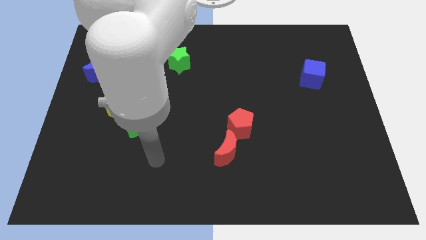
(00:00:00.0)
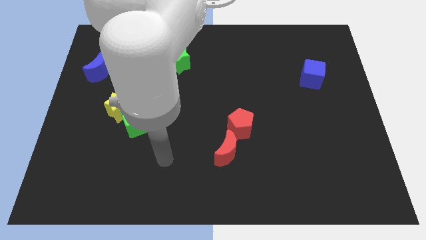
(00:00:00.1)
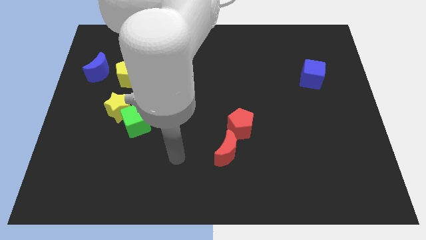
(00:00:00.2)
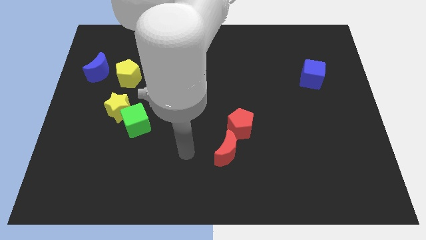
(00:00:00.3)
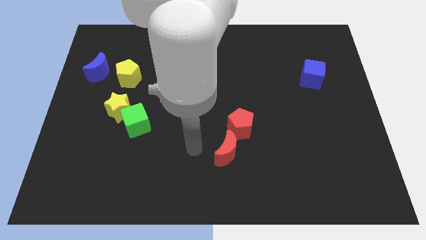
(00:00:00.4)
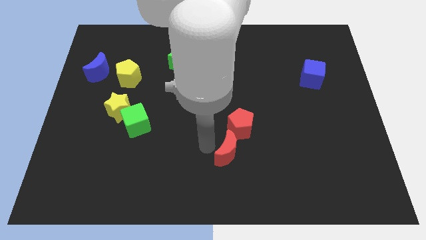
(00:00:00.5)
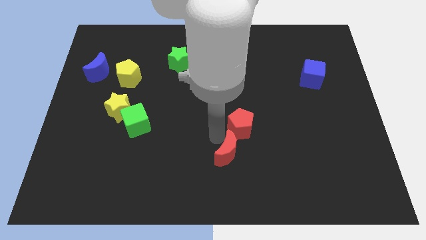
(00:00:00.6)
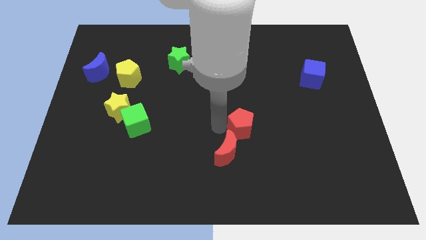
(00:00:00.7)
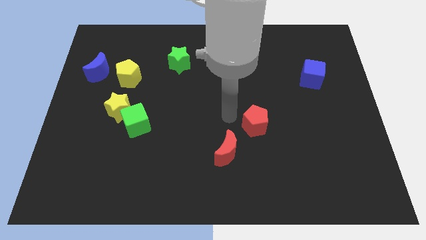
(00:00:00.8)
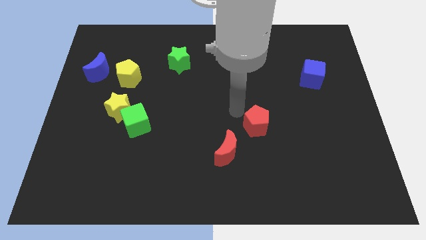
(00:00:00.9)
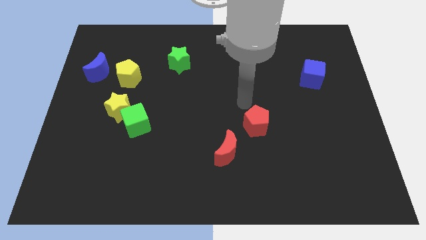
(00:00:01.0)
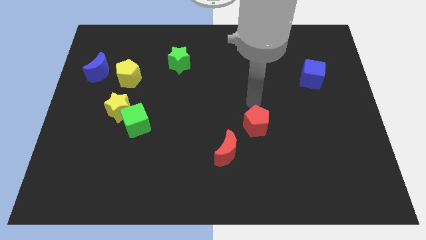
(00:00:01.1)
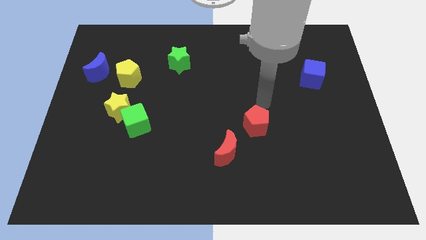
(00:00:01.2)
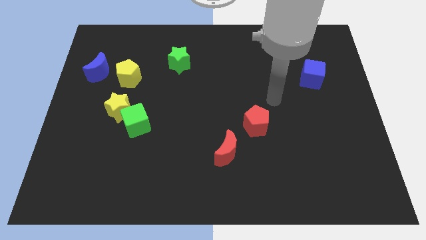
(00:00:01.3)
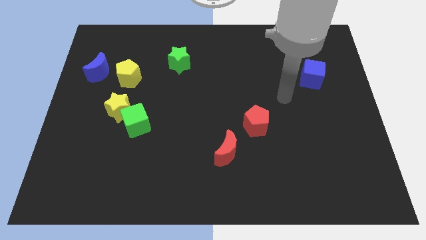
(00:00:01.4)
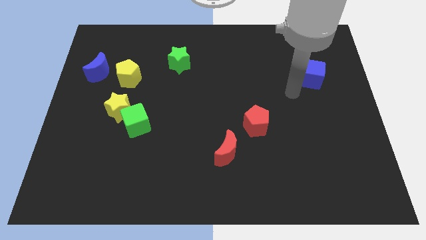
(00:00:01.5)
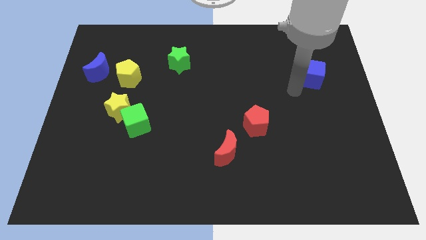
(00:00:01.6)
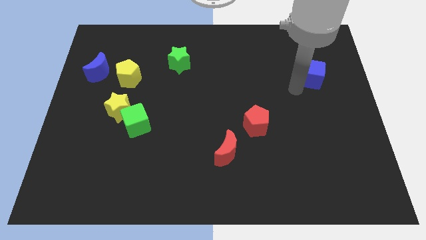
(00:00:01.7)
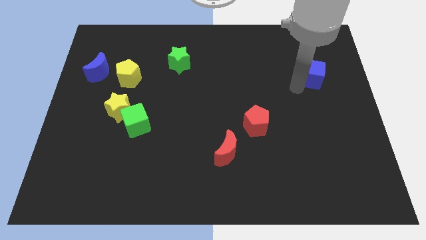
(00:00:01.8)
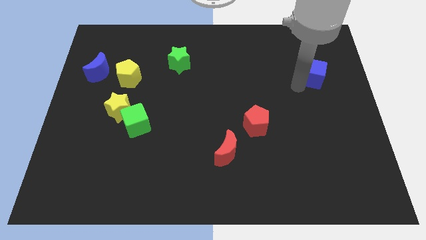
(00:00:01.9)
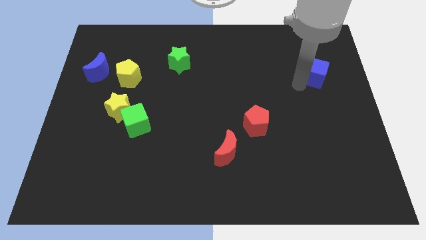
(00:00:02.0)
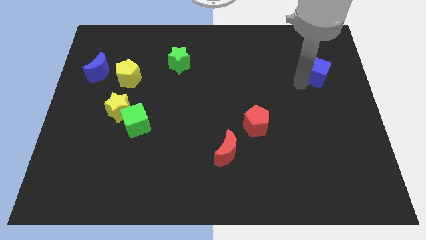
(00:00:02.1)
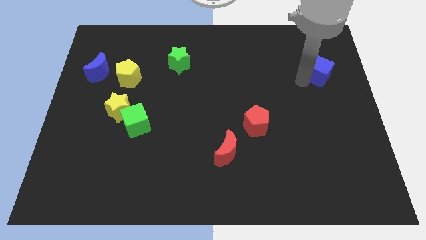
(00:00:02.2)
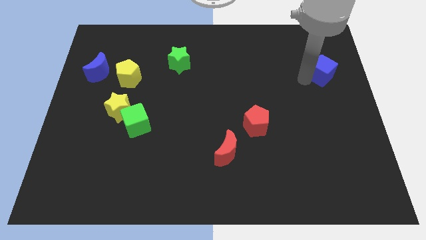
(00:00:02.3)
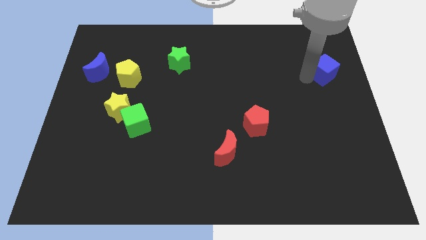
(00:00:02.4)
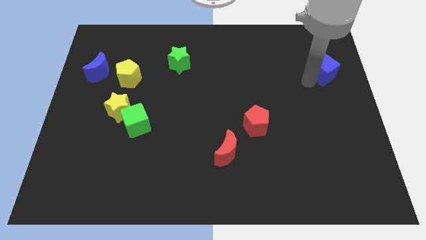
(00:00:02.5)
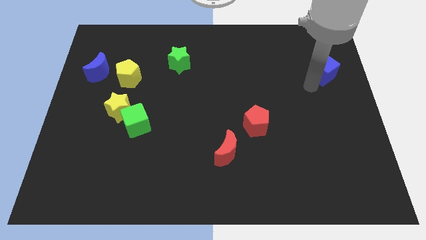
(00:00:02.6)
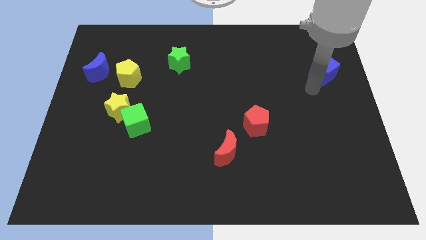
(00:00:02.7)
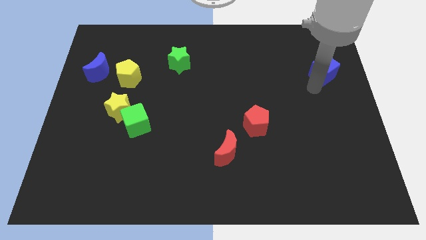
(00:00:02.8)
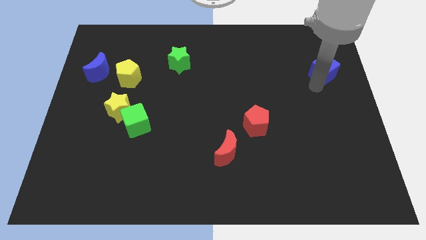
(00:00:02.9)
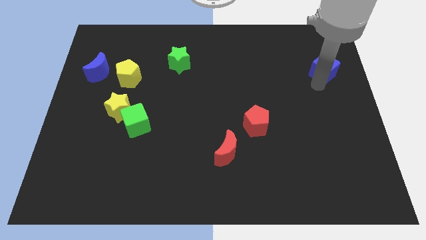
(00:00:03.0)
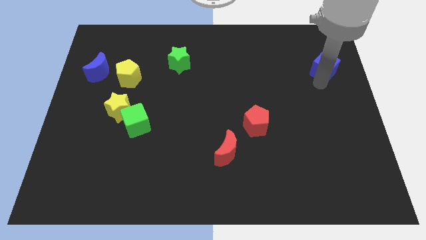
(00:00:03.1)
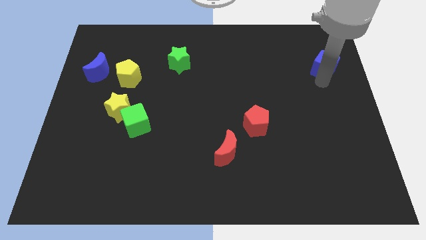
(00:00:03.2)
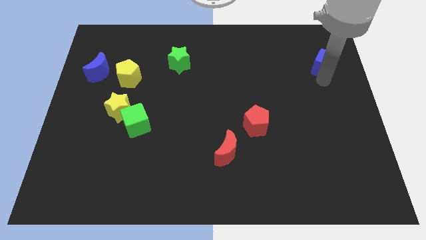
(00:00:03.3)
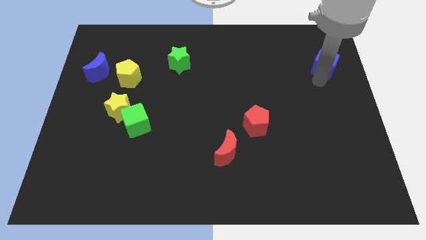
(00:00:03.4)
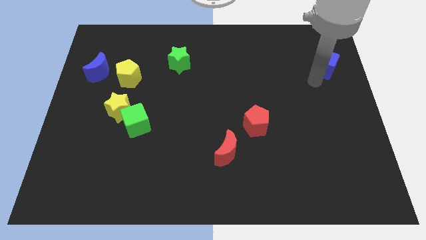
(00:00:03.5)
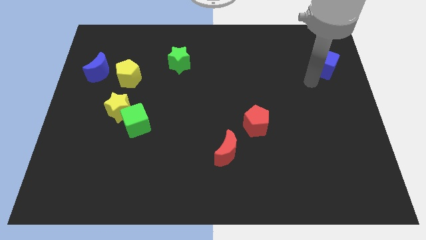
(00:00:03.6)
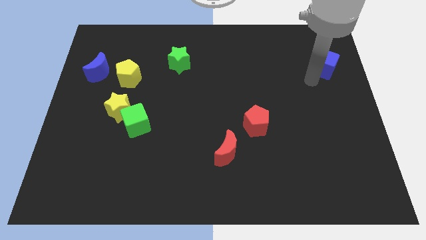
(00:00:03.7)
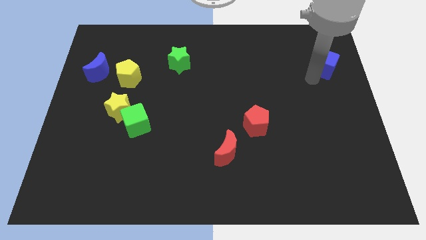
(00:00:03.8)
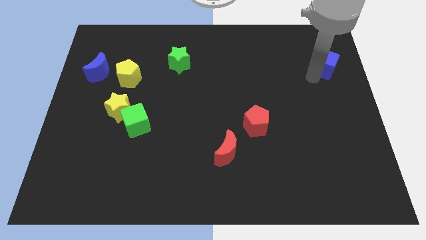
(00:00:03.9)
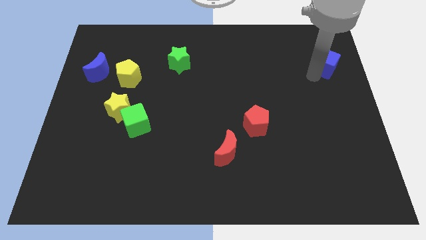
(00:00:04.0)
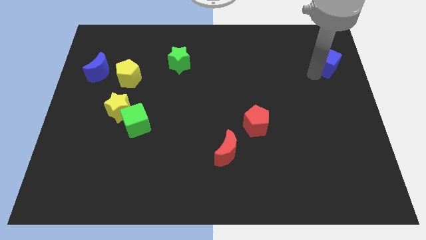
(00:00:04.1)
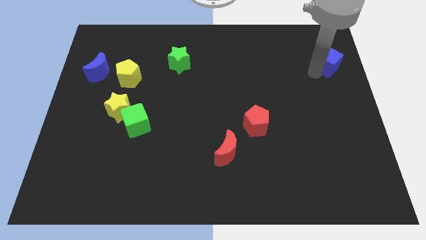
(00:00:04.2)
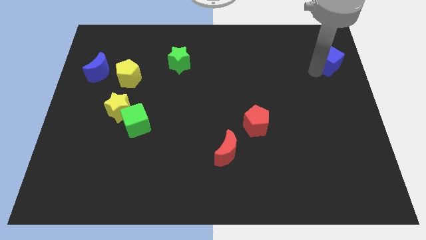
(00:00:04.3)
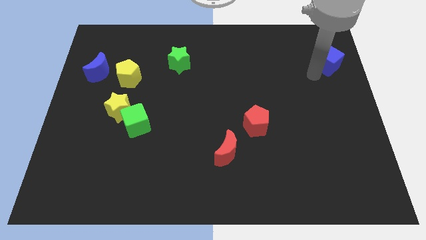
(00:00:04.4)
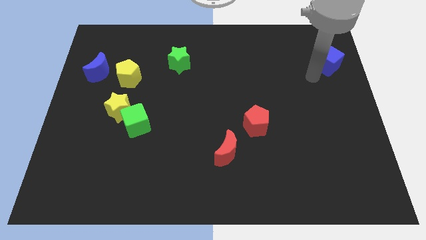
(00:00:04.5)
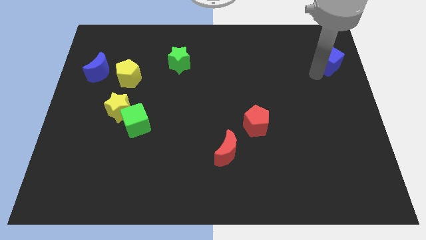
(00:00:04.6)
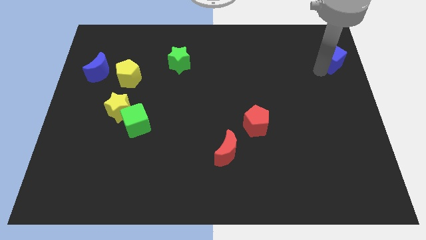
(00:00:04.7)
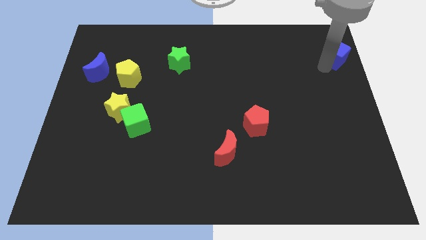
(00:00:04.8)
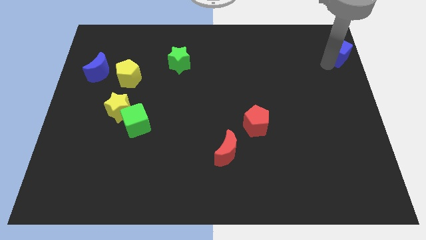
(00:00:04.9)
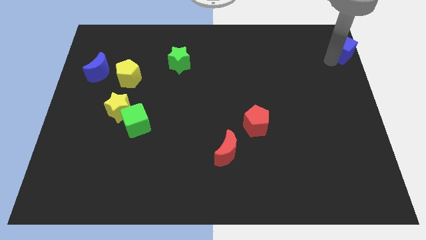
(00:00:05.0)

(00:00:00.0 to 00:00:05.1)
move the blue cube to the upper right corner

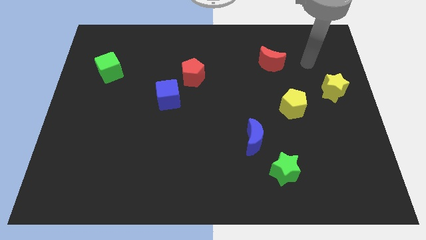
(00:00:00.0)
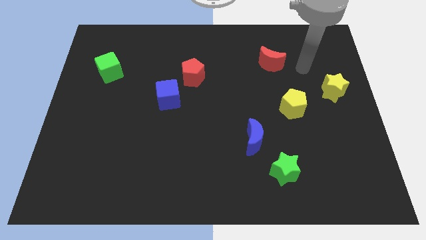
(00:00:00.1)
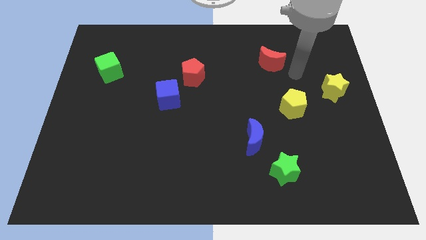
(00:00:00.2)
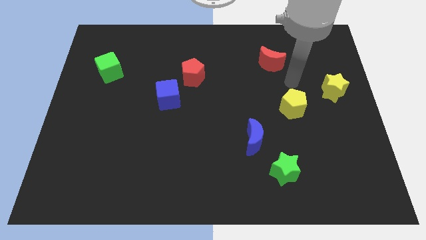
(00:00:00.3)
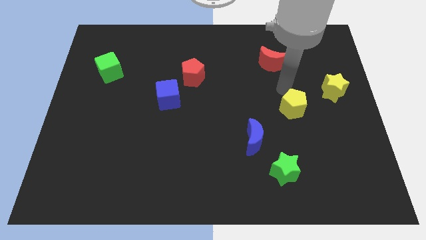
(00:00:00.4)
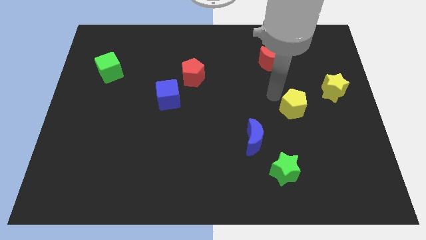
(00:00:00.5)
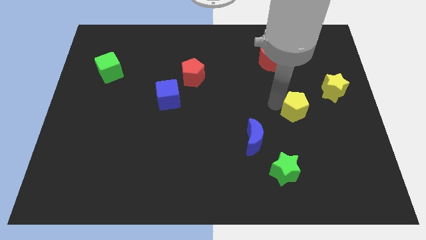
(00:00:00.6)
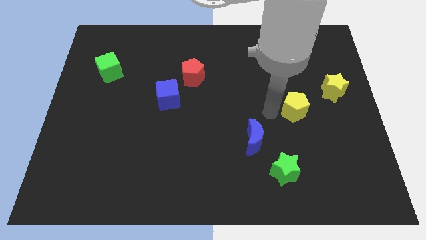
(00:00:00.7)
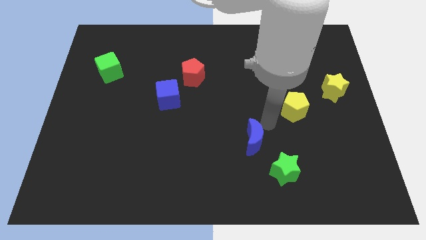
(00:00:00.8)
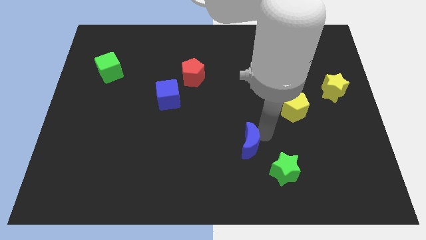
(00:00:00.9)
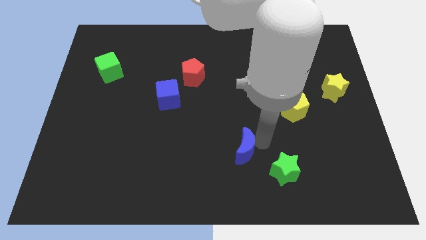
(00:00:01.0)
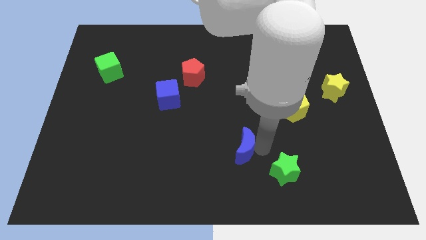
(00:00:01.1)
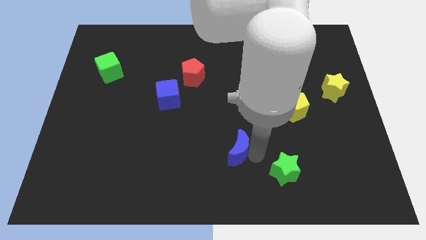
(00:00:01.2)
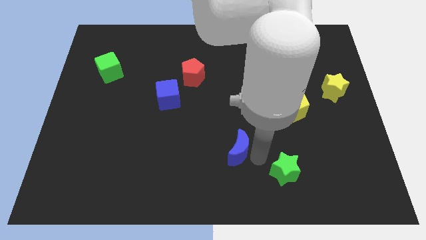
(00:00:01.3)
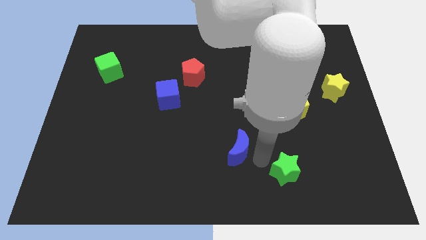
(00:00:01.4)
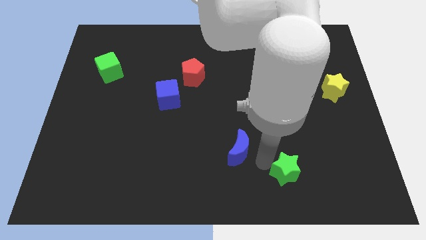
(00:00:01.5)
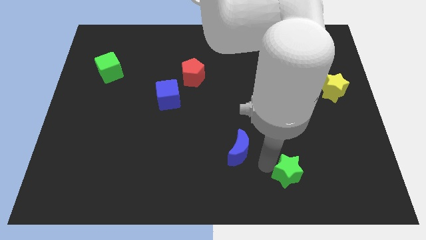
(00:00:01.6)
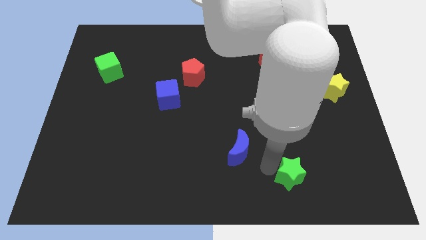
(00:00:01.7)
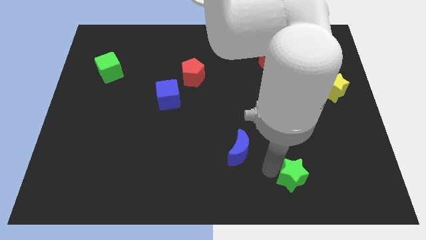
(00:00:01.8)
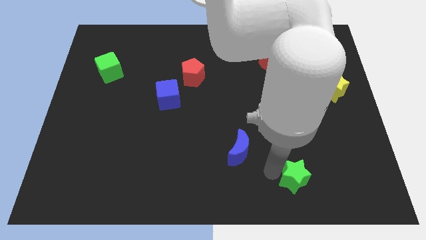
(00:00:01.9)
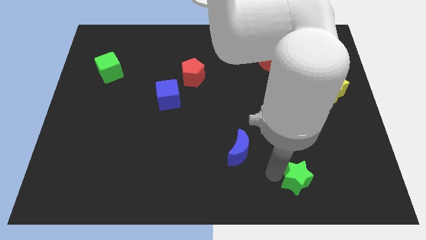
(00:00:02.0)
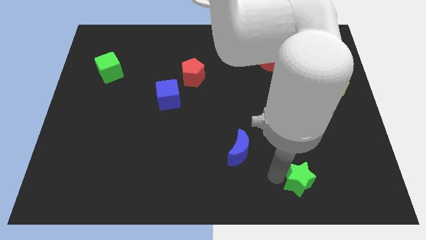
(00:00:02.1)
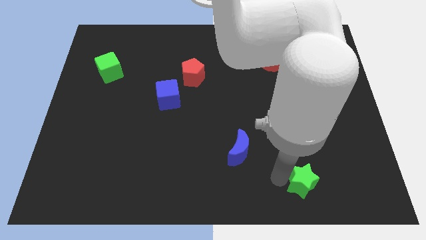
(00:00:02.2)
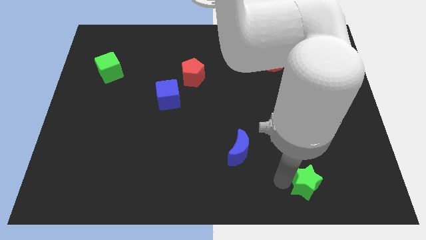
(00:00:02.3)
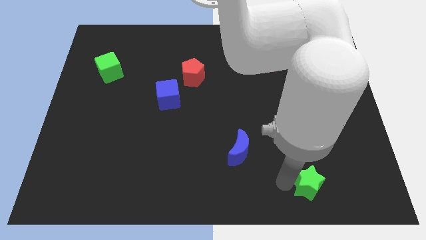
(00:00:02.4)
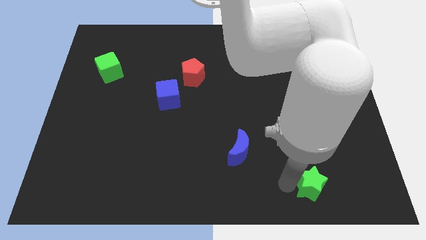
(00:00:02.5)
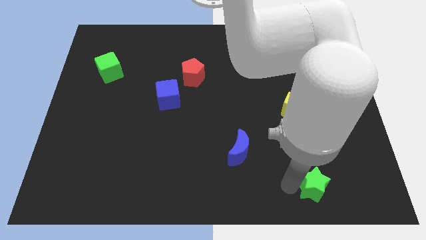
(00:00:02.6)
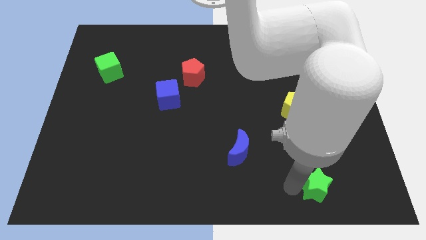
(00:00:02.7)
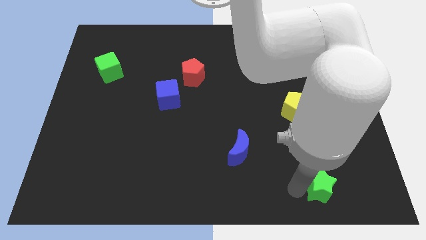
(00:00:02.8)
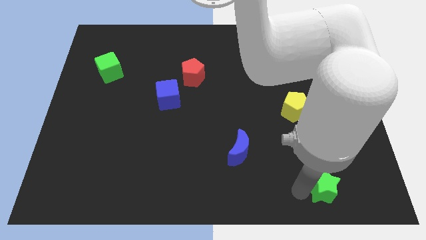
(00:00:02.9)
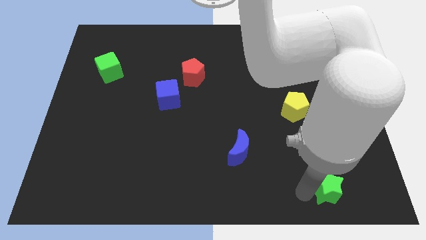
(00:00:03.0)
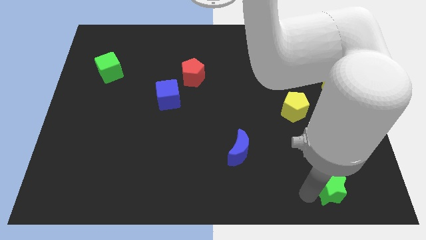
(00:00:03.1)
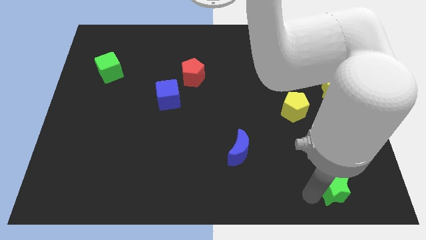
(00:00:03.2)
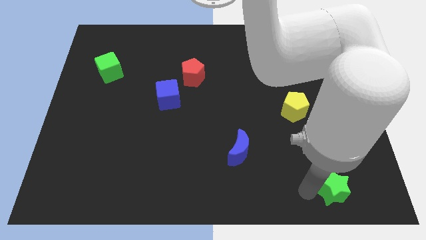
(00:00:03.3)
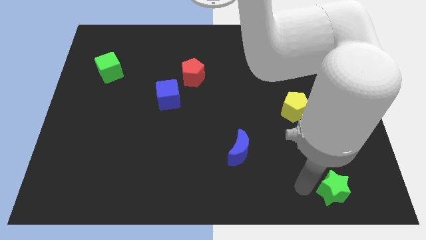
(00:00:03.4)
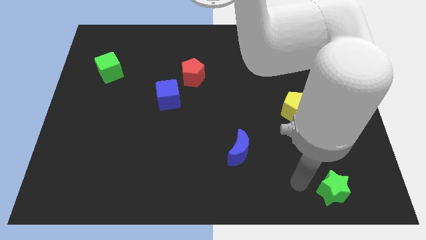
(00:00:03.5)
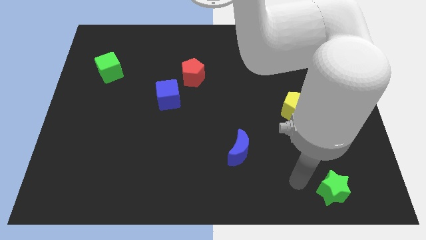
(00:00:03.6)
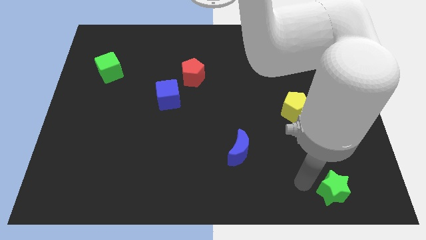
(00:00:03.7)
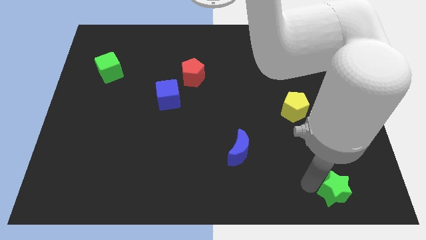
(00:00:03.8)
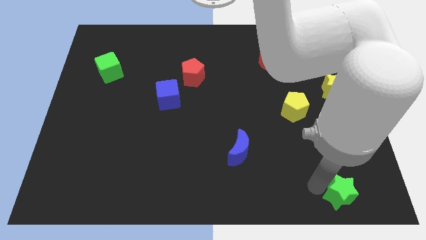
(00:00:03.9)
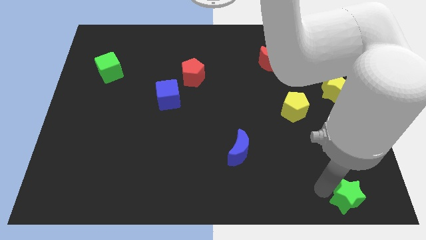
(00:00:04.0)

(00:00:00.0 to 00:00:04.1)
move the green star to the bottom right corner
